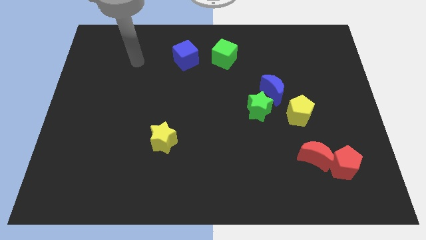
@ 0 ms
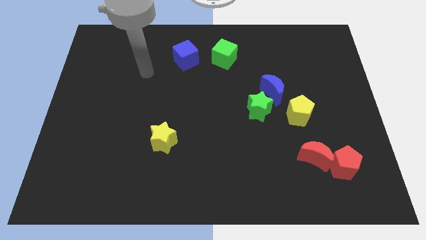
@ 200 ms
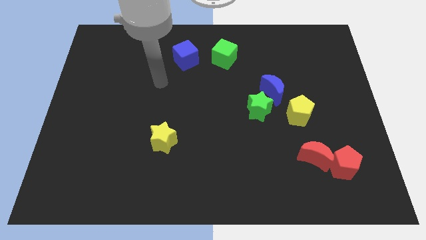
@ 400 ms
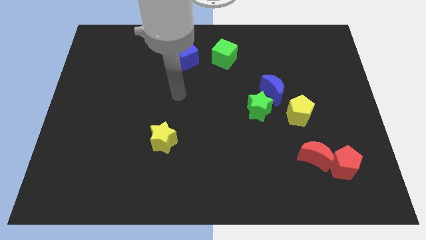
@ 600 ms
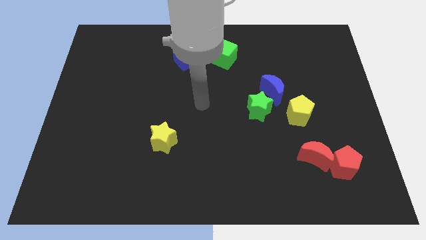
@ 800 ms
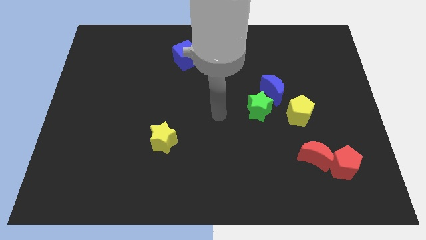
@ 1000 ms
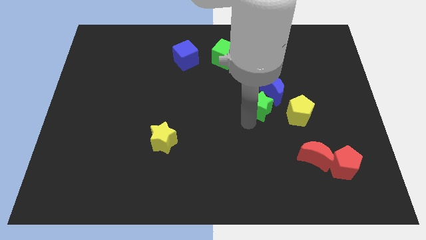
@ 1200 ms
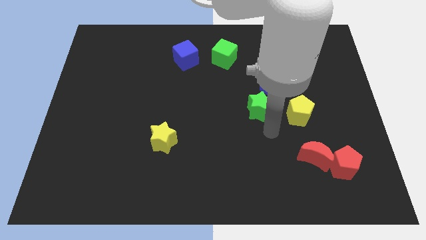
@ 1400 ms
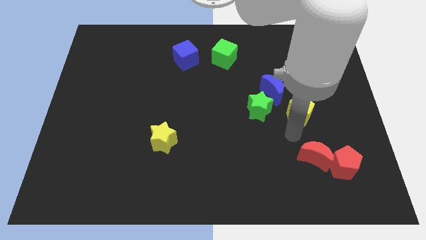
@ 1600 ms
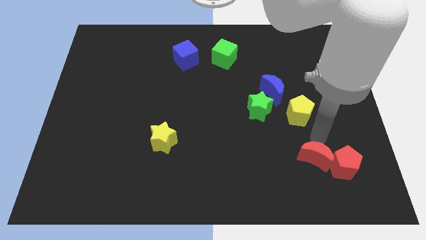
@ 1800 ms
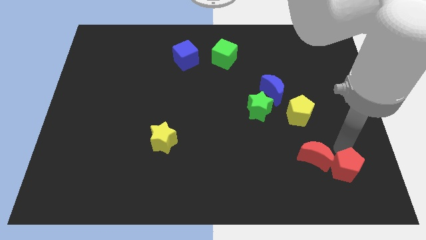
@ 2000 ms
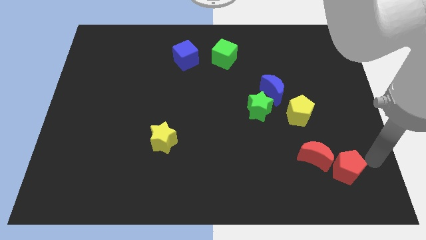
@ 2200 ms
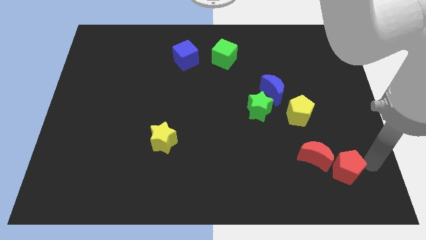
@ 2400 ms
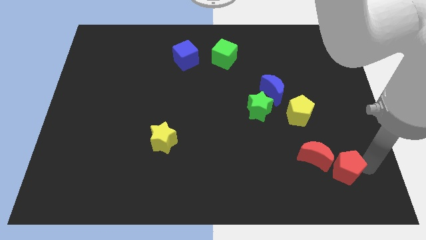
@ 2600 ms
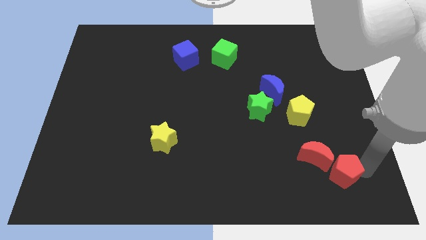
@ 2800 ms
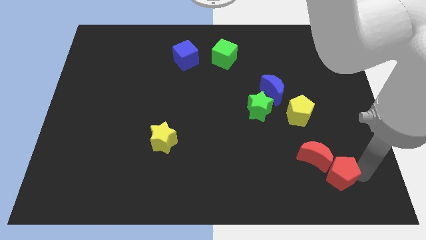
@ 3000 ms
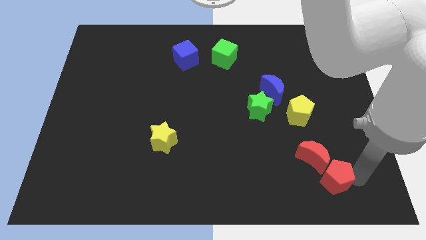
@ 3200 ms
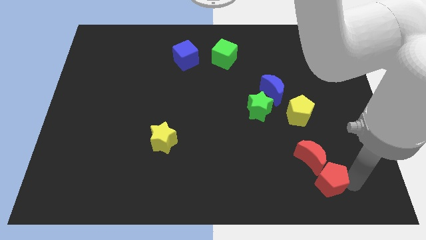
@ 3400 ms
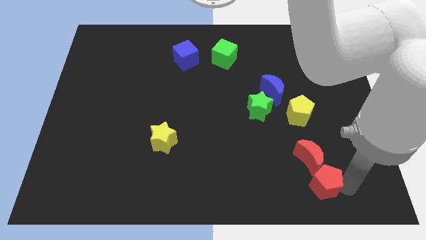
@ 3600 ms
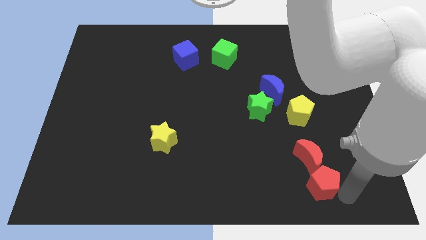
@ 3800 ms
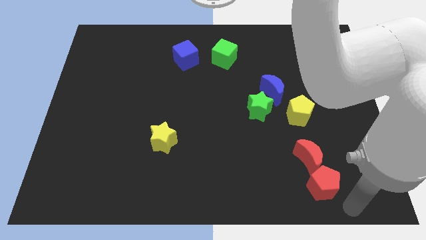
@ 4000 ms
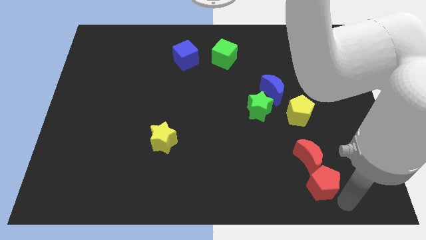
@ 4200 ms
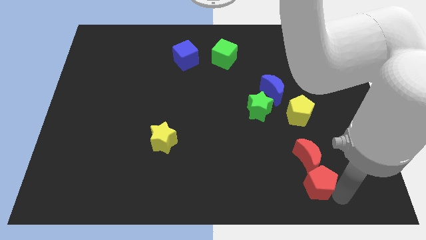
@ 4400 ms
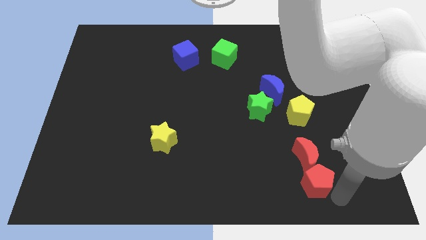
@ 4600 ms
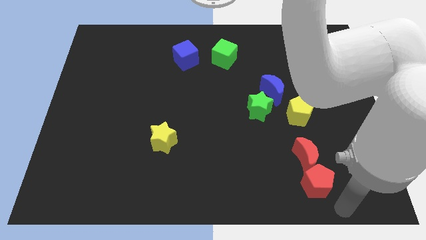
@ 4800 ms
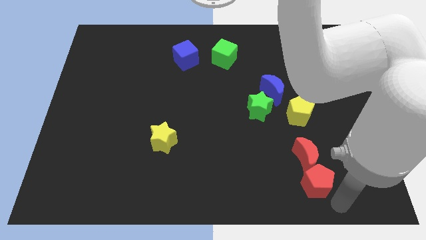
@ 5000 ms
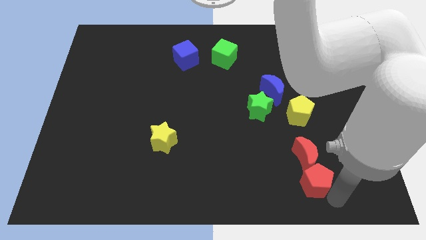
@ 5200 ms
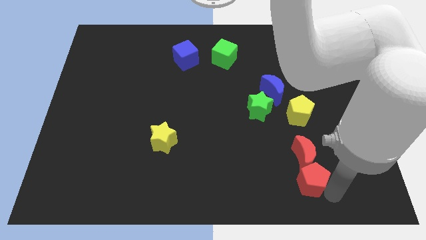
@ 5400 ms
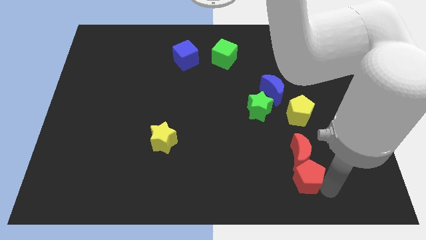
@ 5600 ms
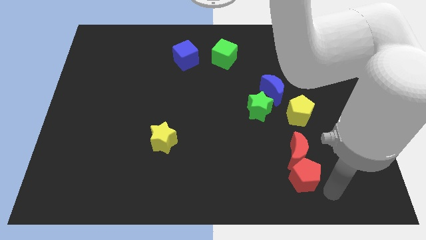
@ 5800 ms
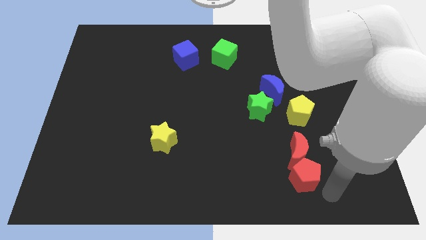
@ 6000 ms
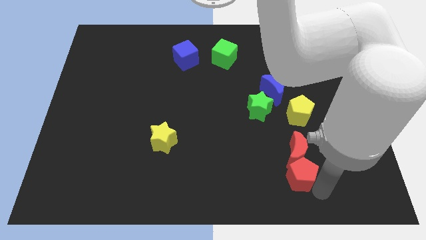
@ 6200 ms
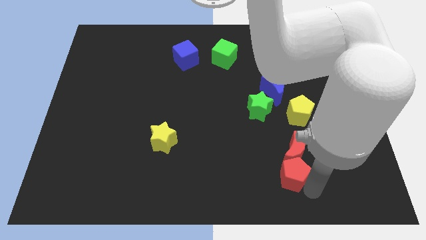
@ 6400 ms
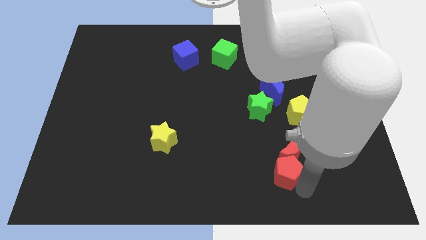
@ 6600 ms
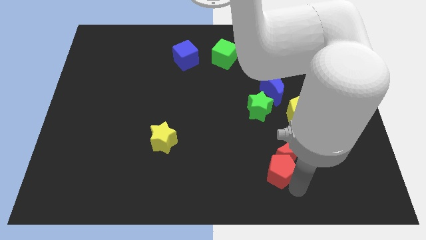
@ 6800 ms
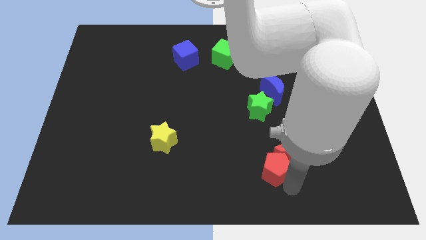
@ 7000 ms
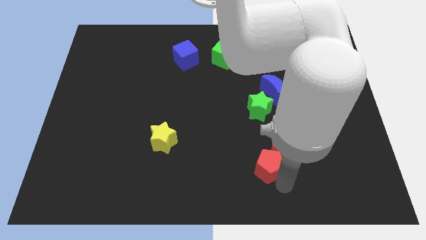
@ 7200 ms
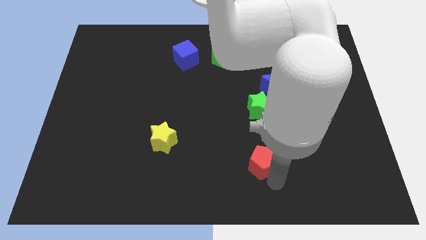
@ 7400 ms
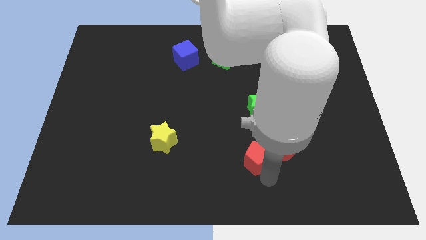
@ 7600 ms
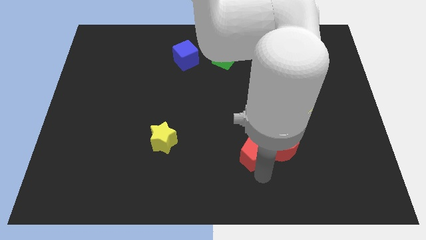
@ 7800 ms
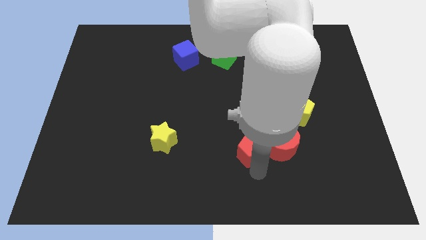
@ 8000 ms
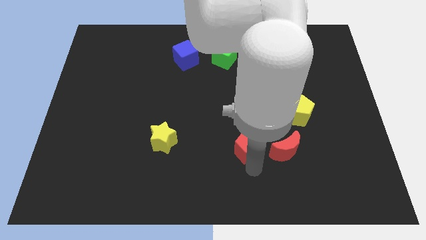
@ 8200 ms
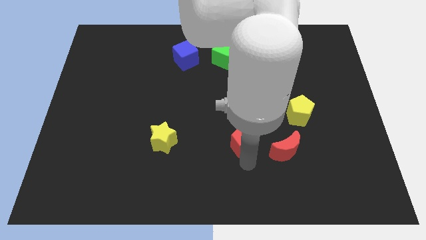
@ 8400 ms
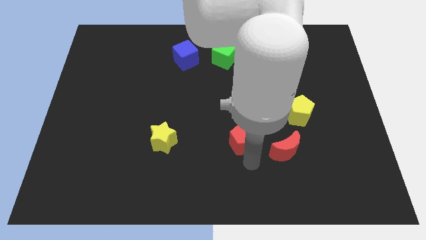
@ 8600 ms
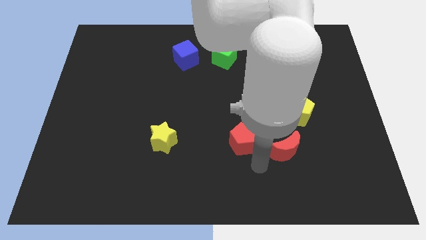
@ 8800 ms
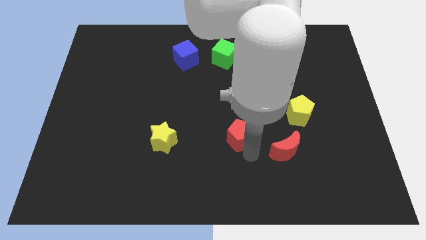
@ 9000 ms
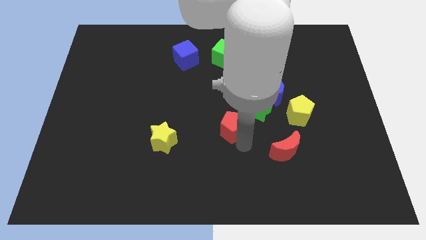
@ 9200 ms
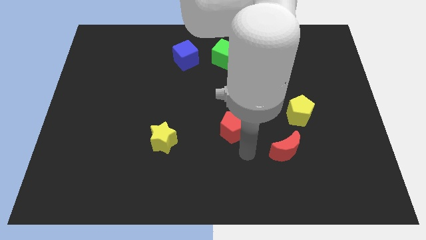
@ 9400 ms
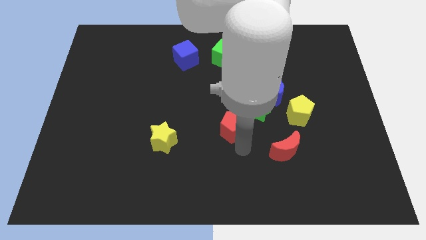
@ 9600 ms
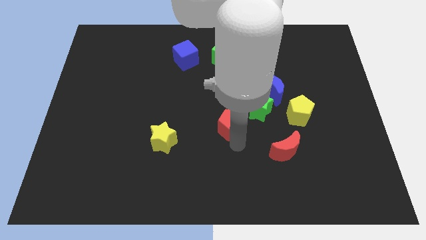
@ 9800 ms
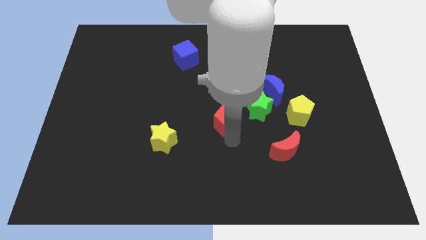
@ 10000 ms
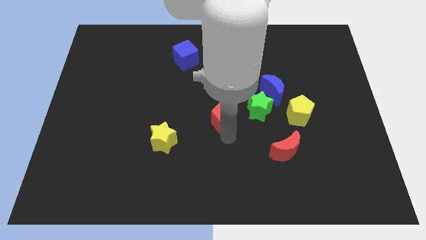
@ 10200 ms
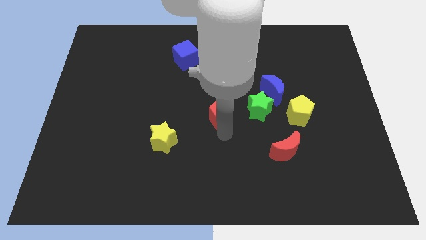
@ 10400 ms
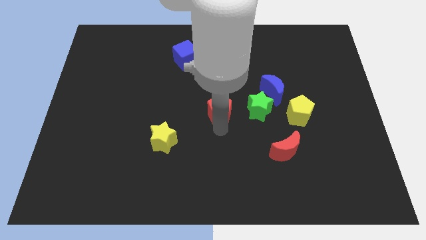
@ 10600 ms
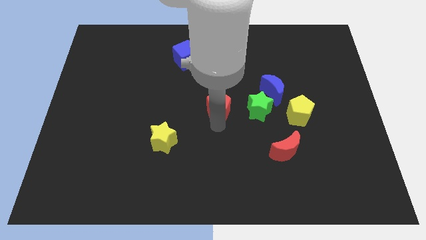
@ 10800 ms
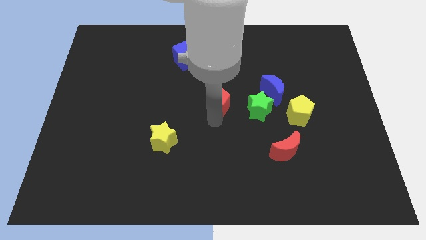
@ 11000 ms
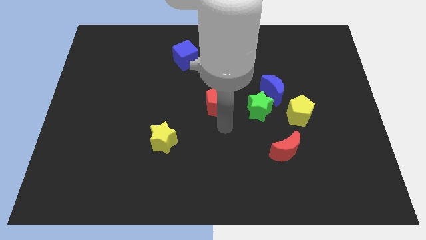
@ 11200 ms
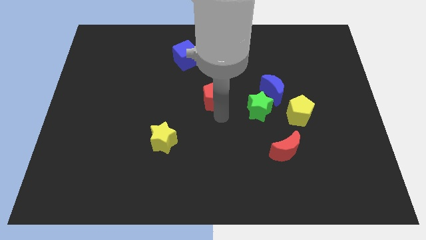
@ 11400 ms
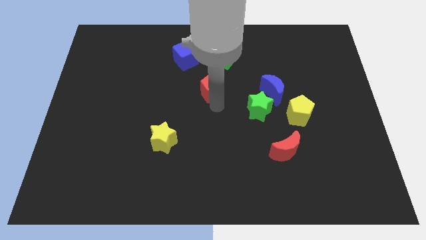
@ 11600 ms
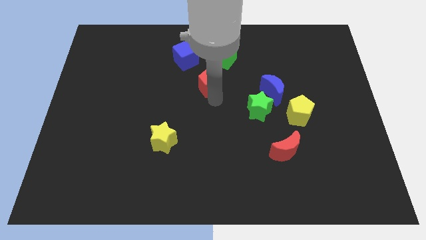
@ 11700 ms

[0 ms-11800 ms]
put the red pentagon to the bottom left of the green cube
